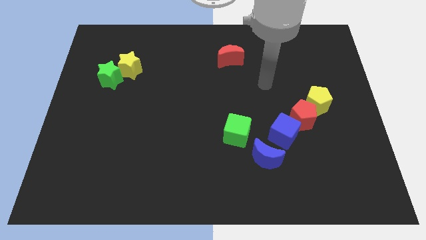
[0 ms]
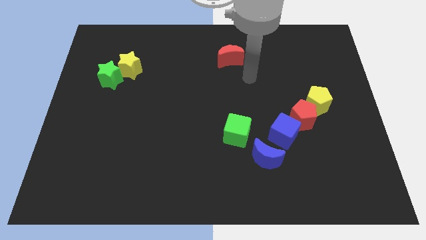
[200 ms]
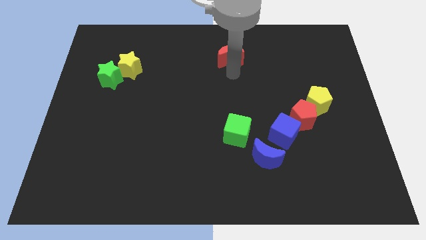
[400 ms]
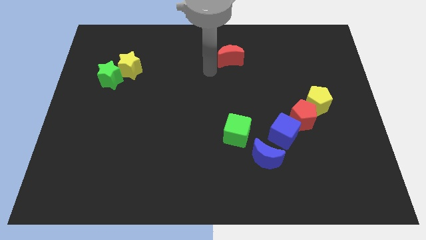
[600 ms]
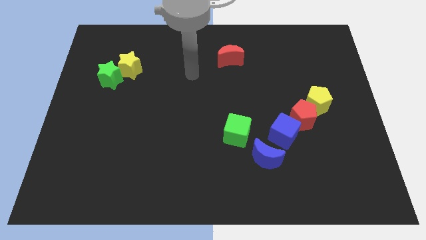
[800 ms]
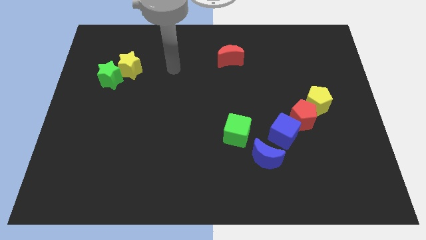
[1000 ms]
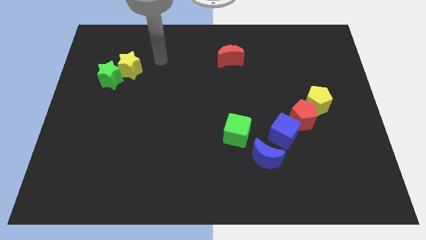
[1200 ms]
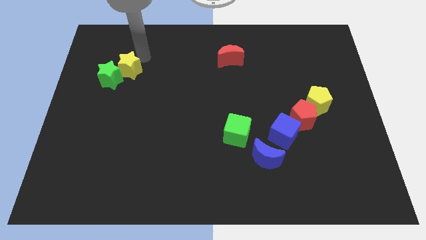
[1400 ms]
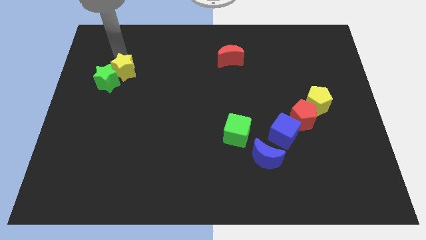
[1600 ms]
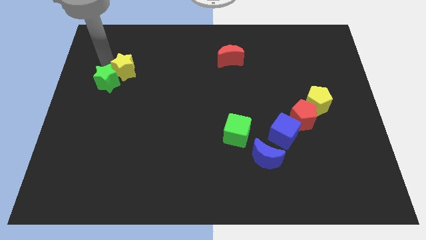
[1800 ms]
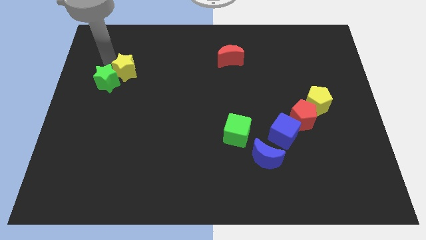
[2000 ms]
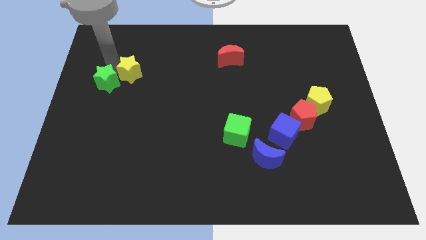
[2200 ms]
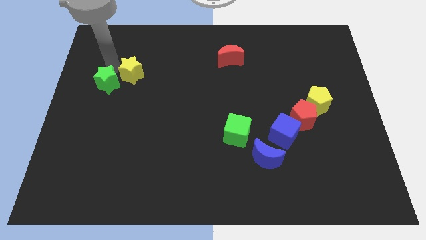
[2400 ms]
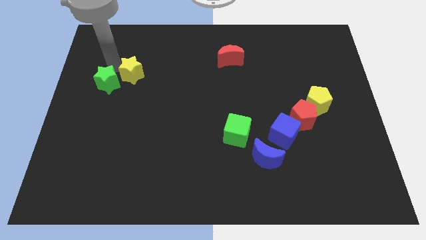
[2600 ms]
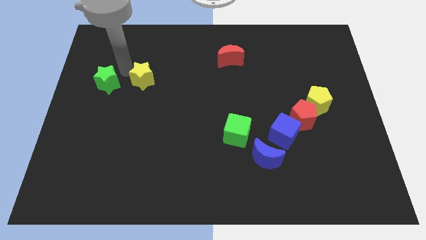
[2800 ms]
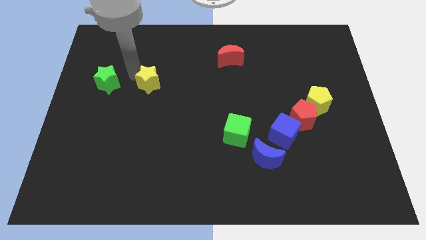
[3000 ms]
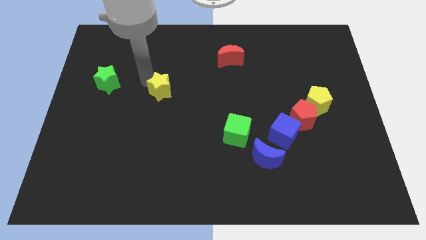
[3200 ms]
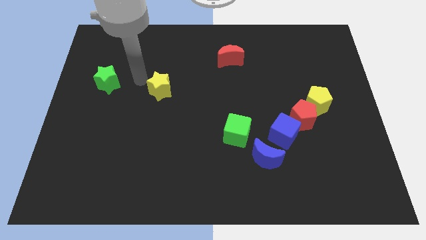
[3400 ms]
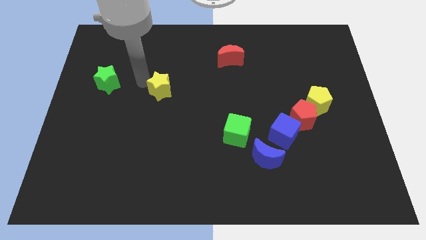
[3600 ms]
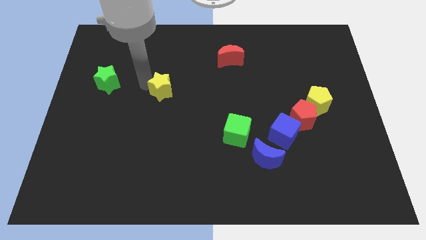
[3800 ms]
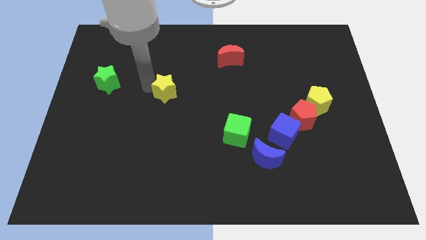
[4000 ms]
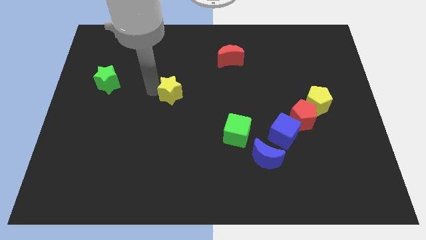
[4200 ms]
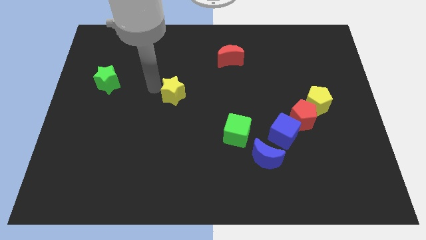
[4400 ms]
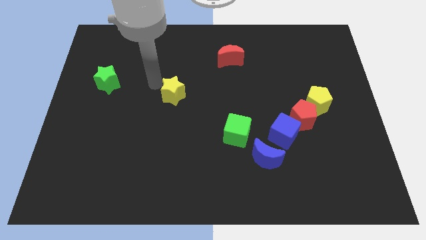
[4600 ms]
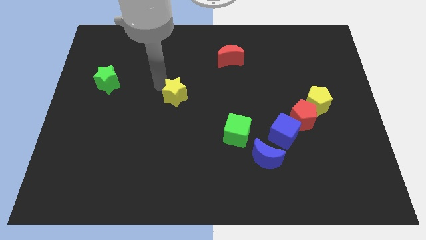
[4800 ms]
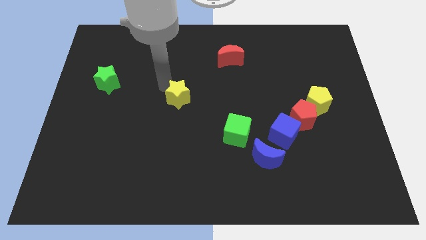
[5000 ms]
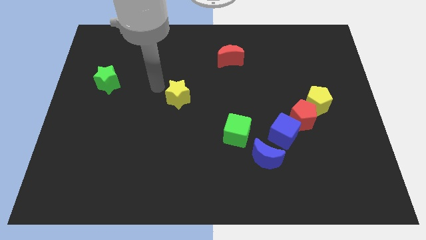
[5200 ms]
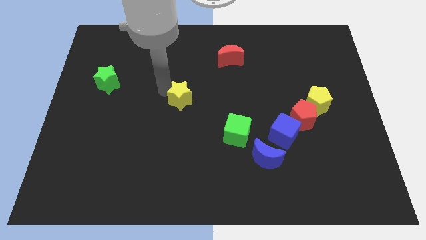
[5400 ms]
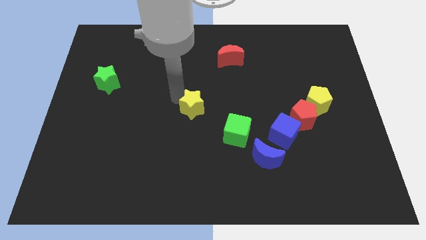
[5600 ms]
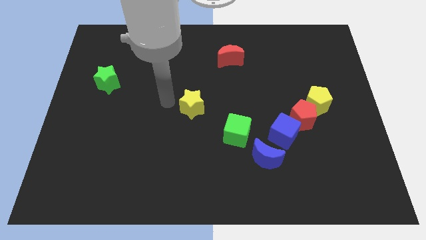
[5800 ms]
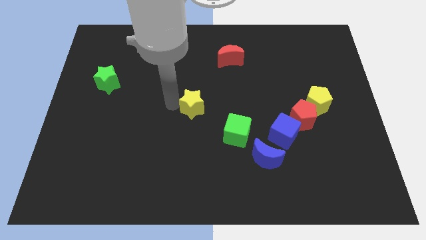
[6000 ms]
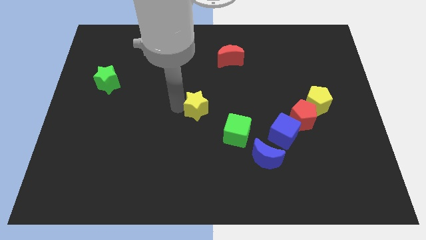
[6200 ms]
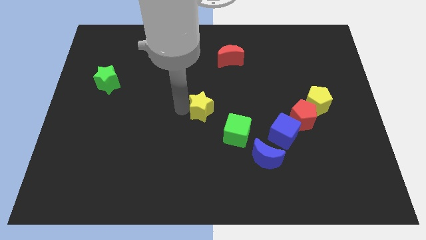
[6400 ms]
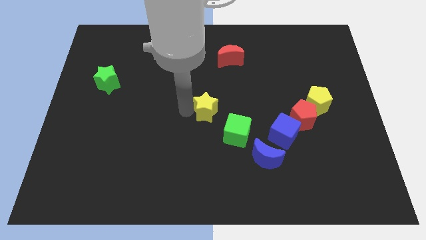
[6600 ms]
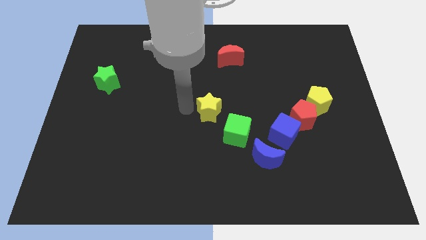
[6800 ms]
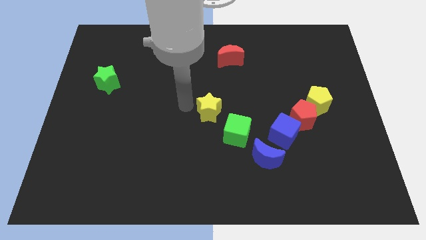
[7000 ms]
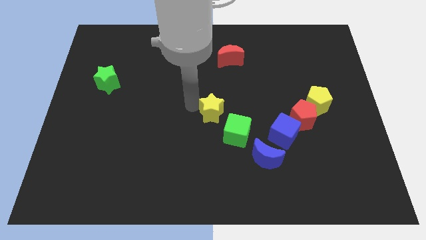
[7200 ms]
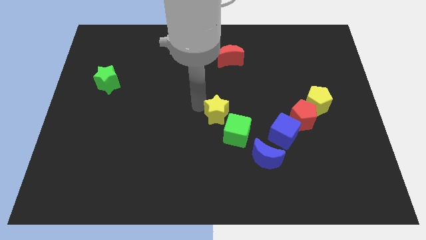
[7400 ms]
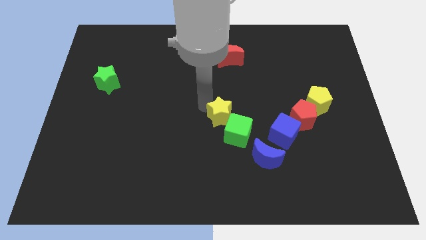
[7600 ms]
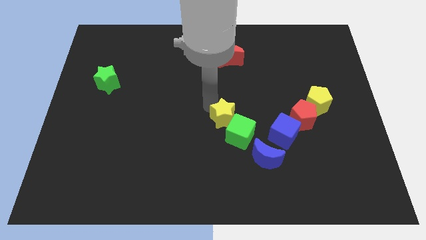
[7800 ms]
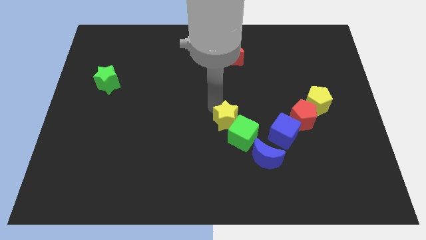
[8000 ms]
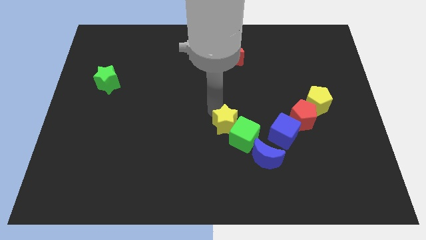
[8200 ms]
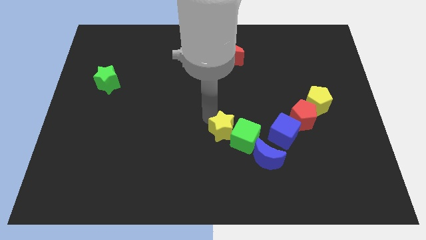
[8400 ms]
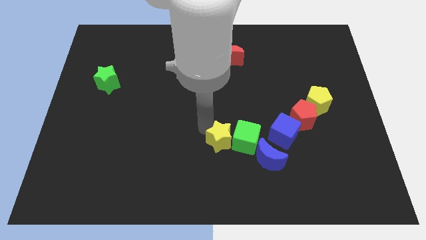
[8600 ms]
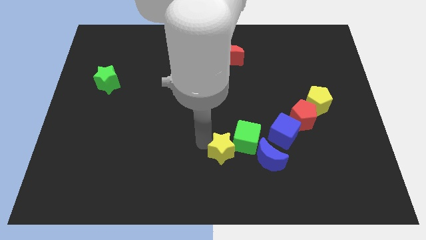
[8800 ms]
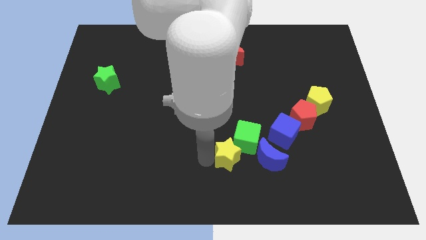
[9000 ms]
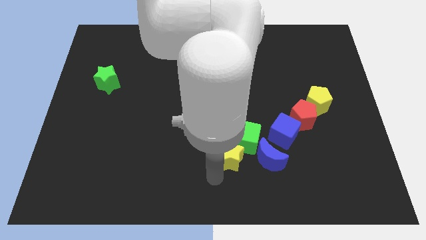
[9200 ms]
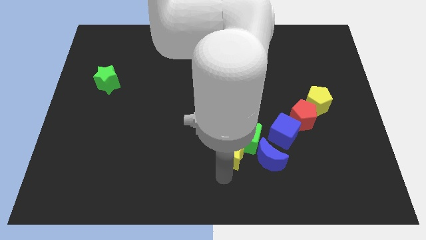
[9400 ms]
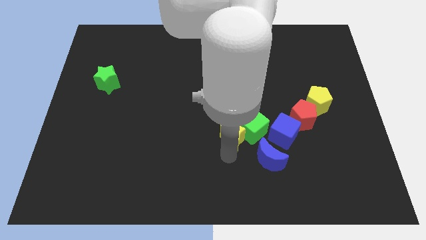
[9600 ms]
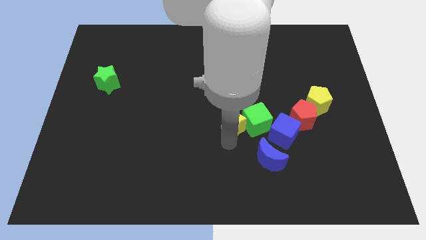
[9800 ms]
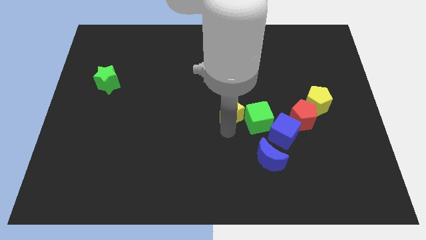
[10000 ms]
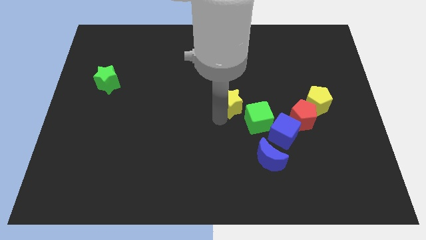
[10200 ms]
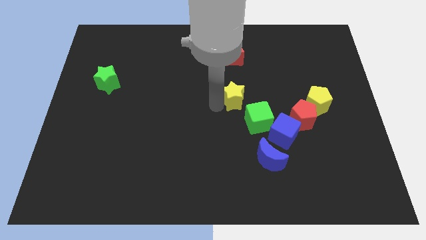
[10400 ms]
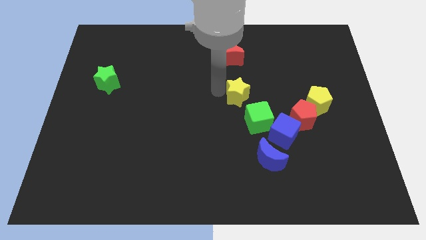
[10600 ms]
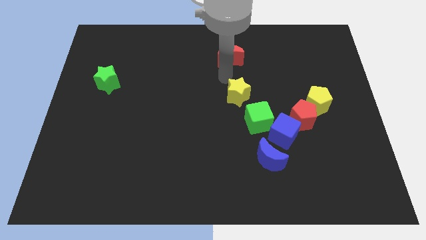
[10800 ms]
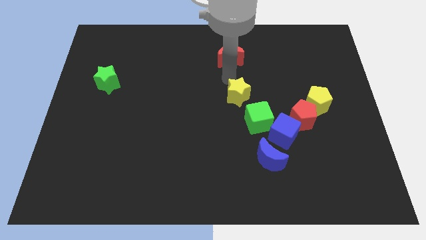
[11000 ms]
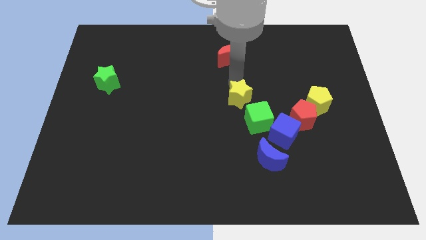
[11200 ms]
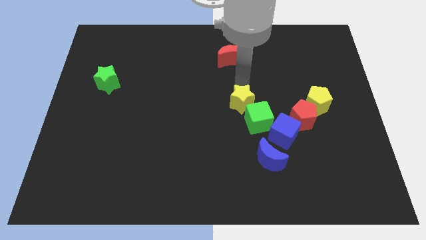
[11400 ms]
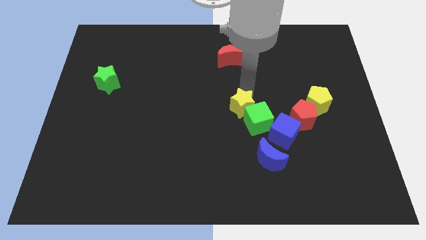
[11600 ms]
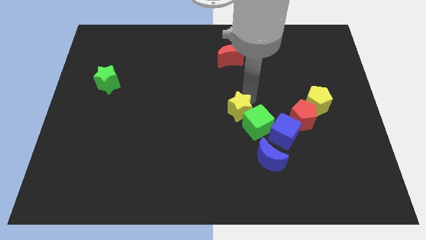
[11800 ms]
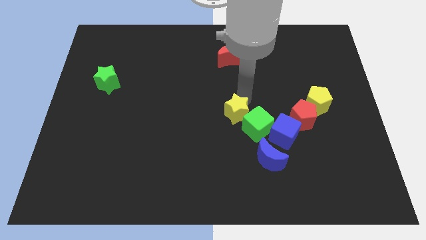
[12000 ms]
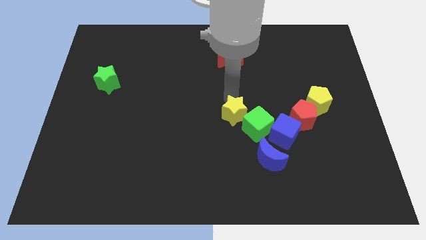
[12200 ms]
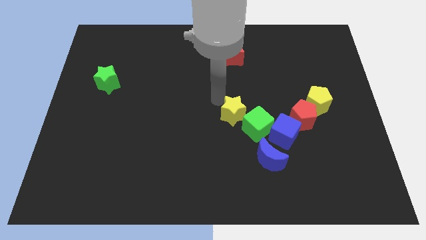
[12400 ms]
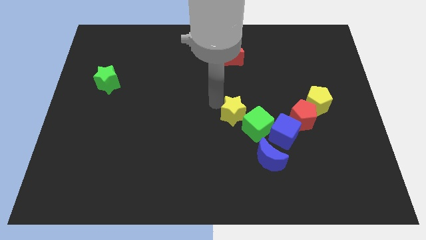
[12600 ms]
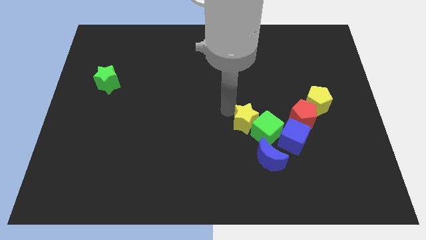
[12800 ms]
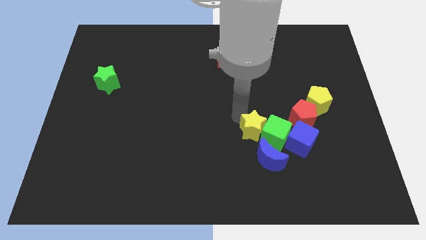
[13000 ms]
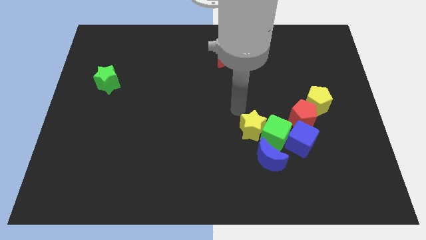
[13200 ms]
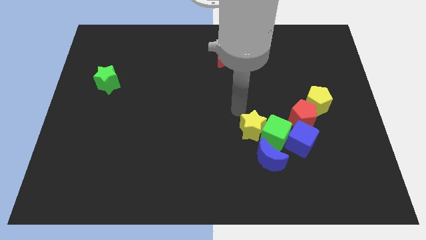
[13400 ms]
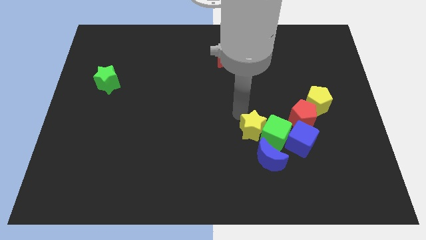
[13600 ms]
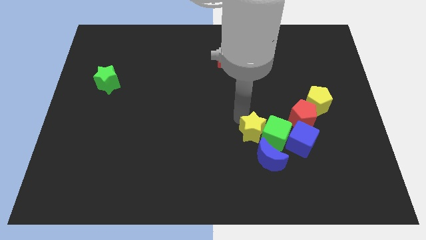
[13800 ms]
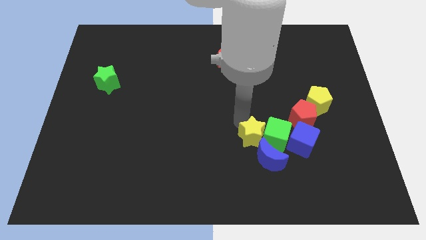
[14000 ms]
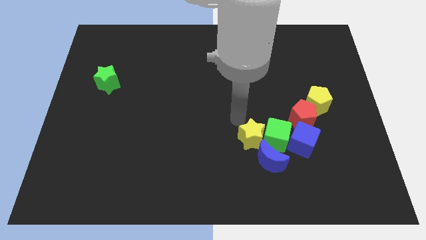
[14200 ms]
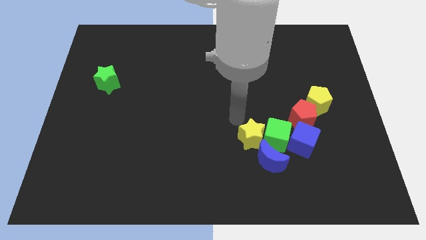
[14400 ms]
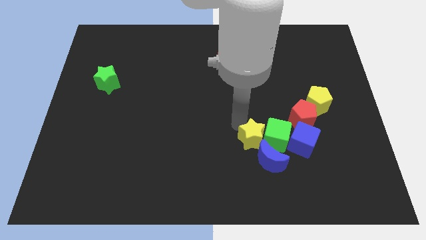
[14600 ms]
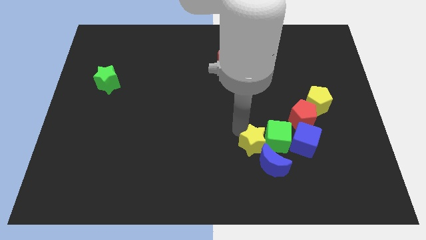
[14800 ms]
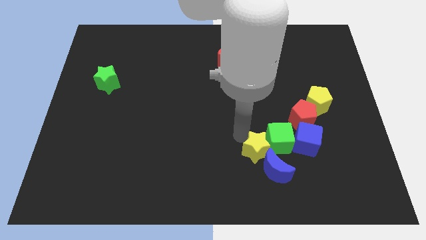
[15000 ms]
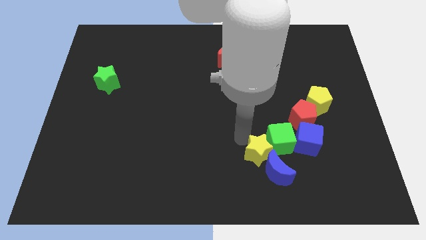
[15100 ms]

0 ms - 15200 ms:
put the yellow star close to the blue moon
